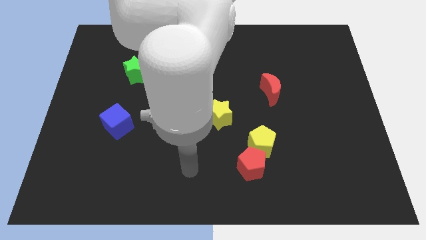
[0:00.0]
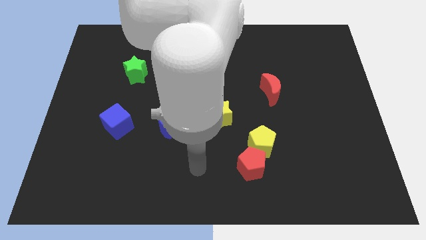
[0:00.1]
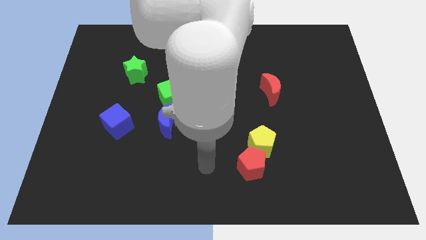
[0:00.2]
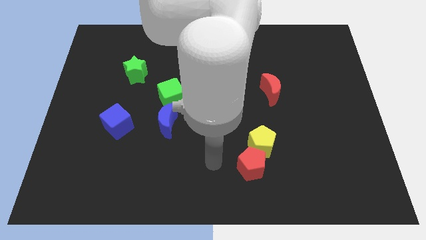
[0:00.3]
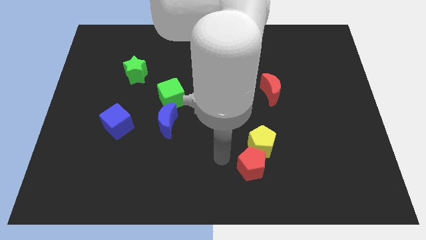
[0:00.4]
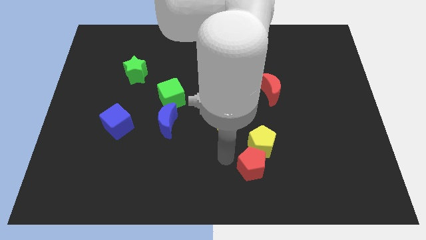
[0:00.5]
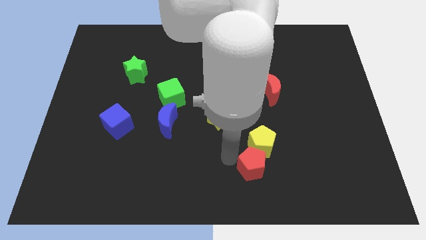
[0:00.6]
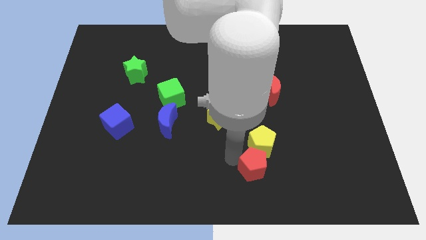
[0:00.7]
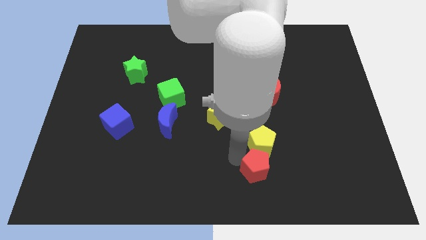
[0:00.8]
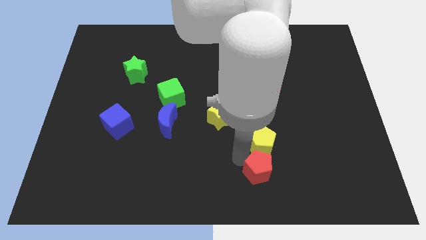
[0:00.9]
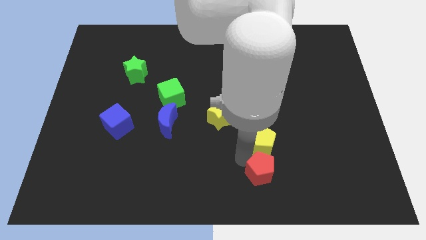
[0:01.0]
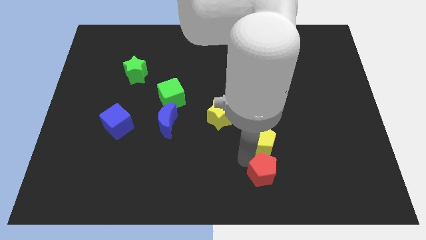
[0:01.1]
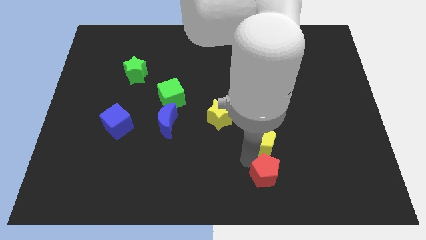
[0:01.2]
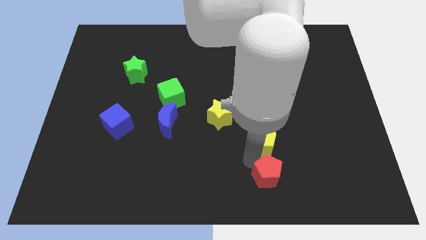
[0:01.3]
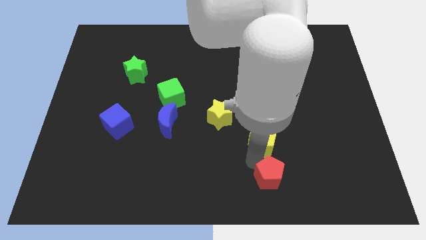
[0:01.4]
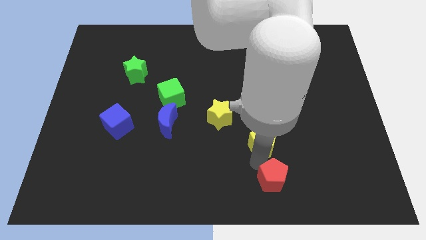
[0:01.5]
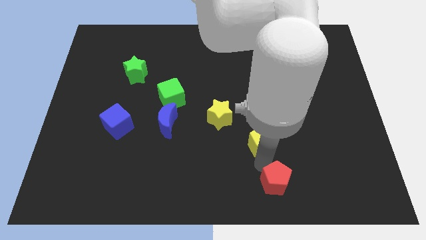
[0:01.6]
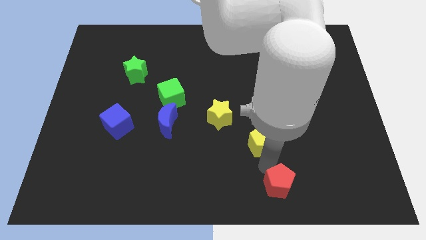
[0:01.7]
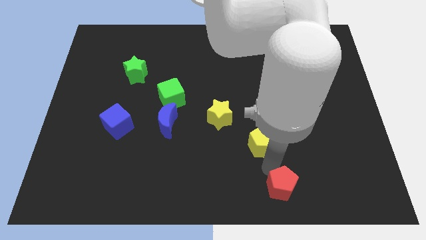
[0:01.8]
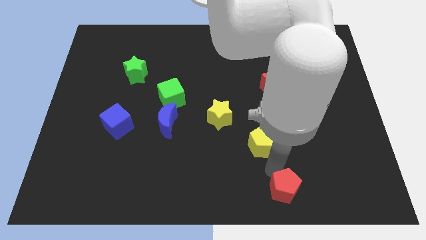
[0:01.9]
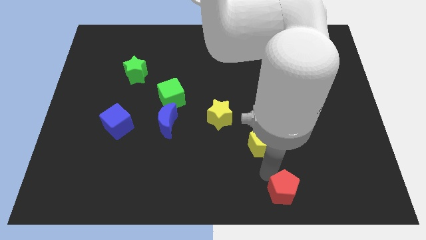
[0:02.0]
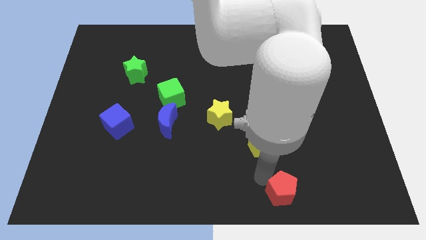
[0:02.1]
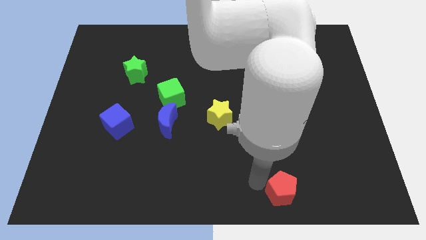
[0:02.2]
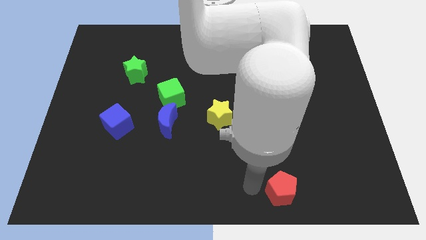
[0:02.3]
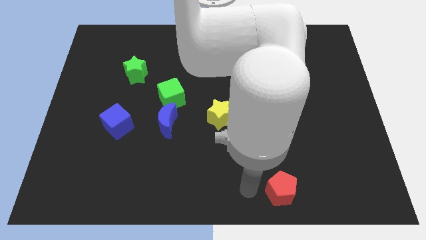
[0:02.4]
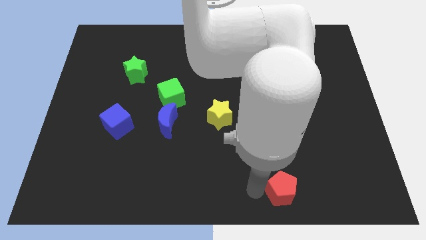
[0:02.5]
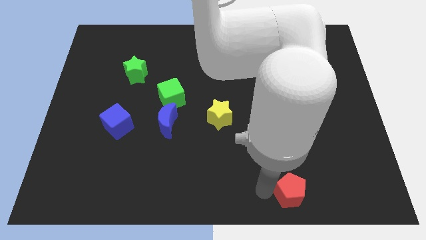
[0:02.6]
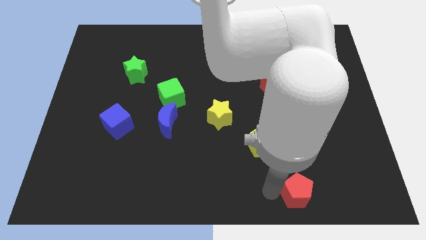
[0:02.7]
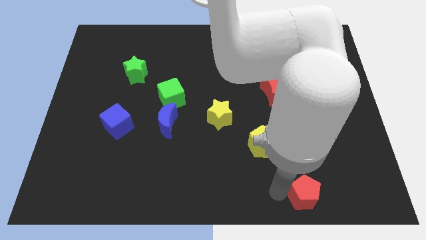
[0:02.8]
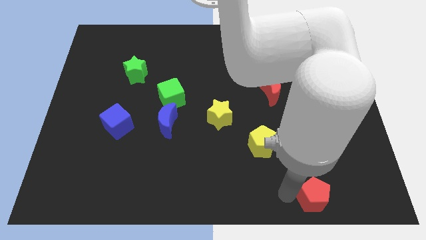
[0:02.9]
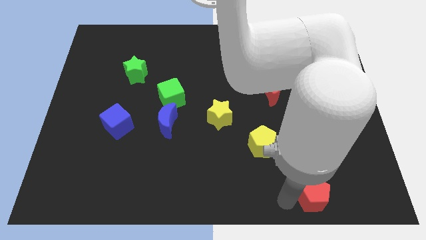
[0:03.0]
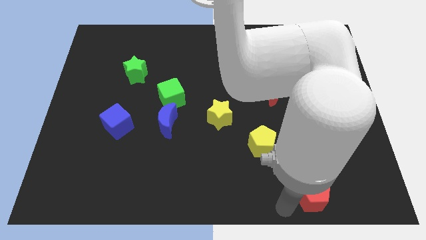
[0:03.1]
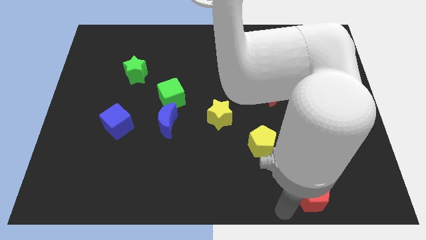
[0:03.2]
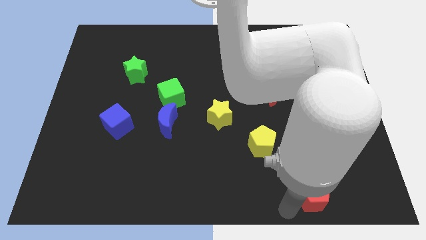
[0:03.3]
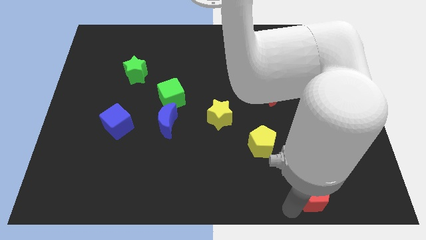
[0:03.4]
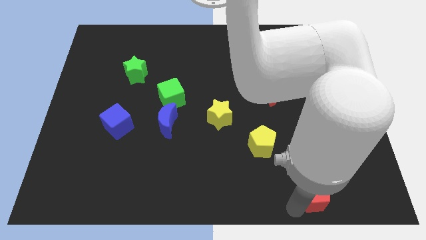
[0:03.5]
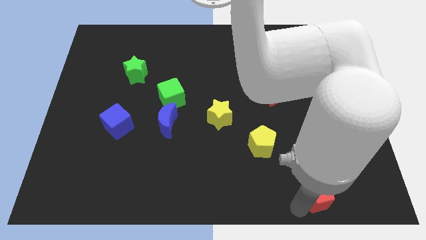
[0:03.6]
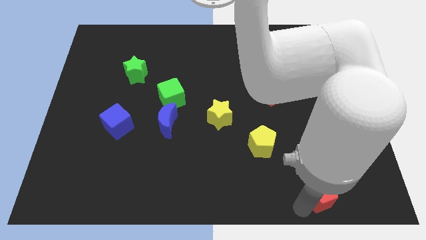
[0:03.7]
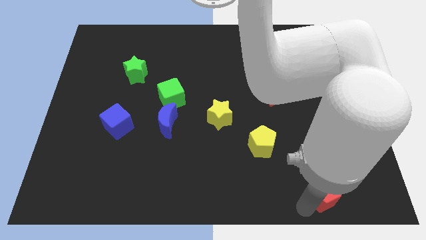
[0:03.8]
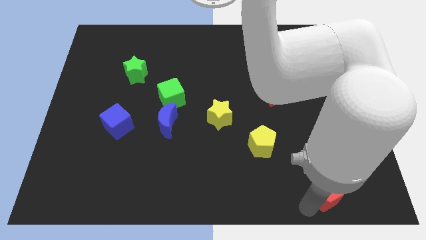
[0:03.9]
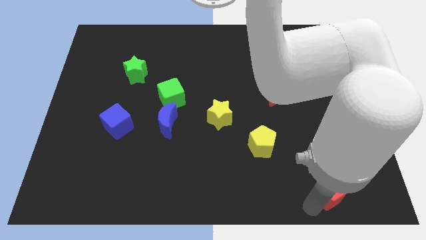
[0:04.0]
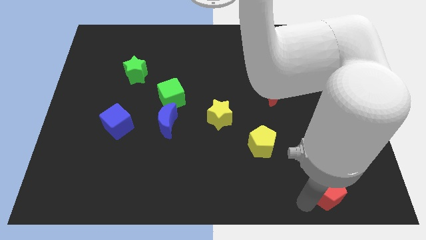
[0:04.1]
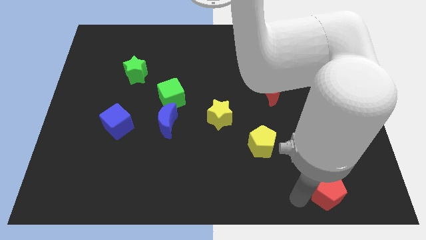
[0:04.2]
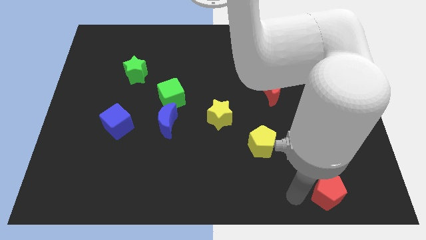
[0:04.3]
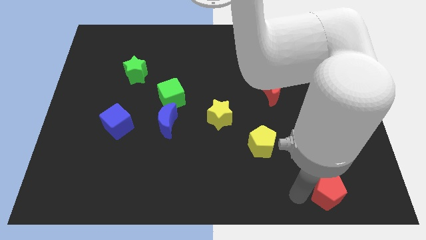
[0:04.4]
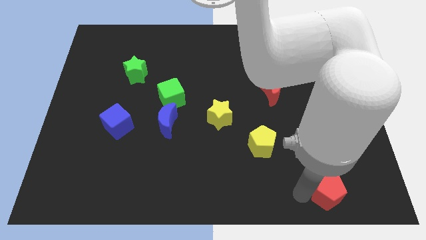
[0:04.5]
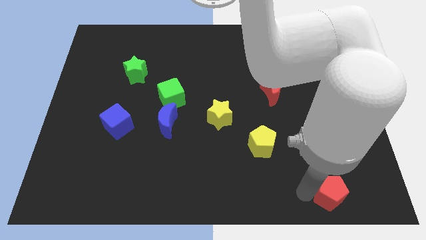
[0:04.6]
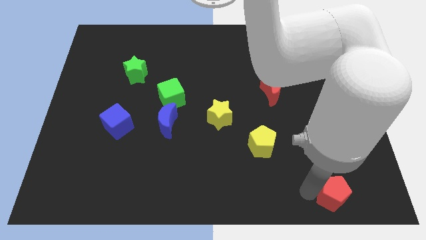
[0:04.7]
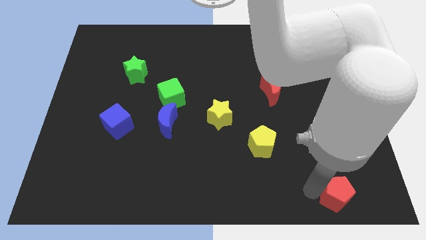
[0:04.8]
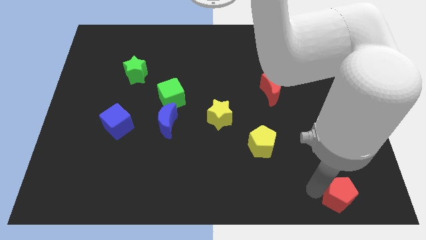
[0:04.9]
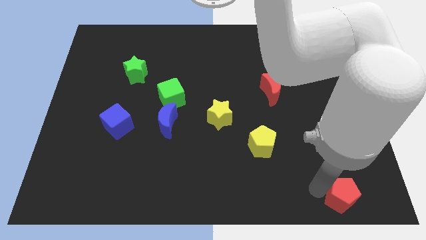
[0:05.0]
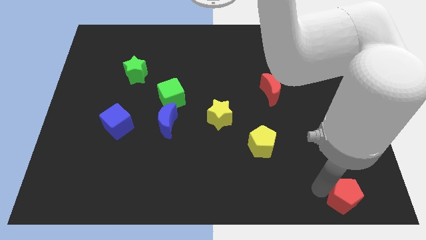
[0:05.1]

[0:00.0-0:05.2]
move the red pentagon to the bottom right corner

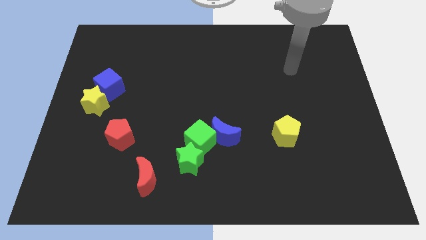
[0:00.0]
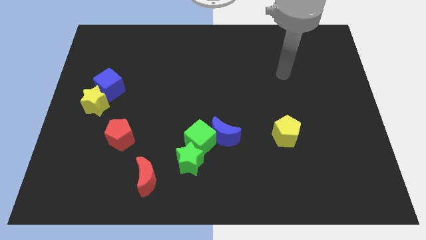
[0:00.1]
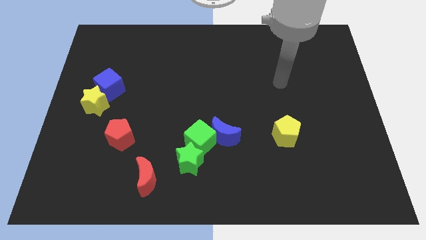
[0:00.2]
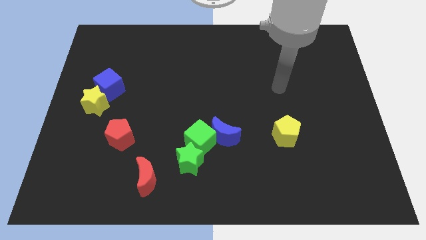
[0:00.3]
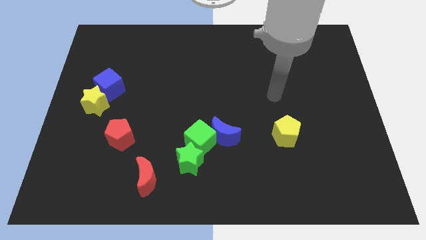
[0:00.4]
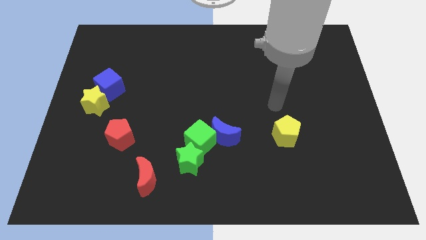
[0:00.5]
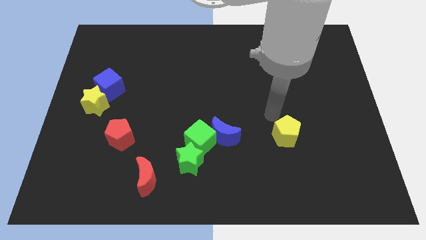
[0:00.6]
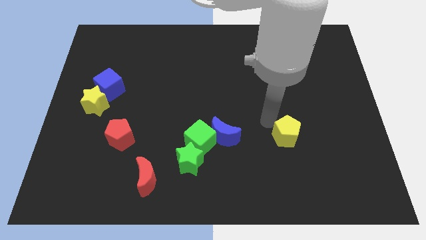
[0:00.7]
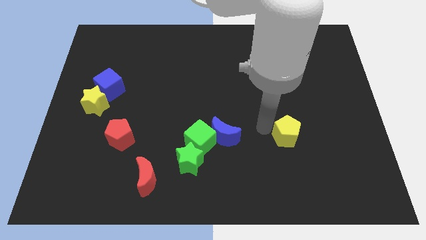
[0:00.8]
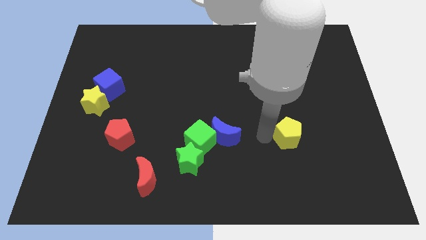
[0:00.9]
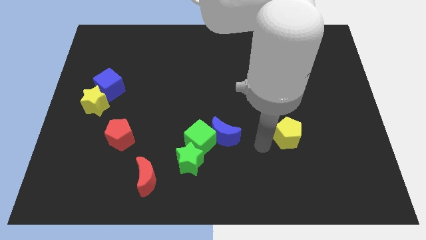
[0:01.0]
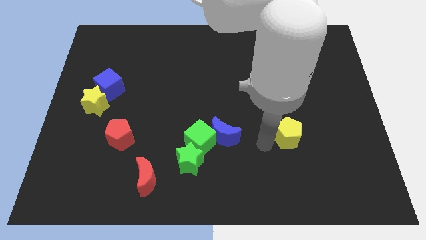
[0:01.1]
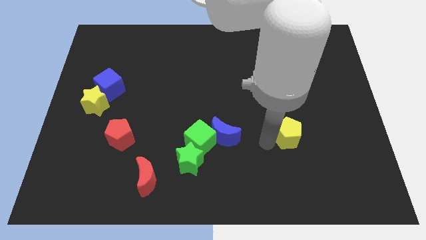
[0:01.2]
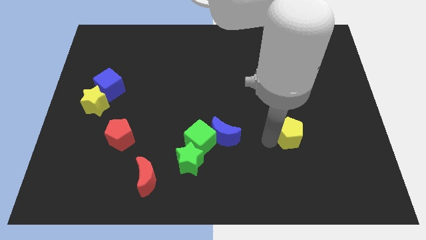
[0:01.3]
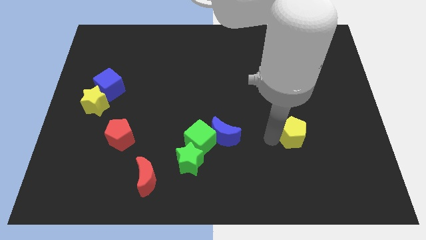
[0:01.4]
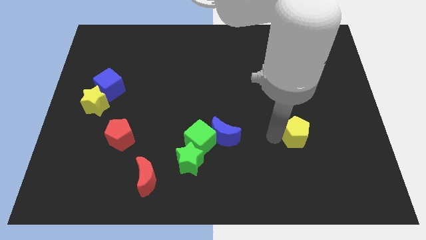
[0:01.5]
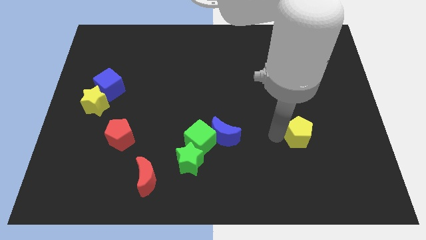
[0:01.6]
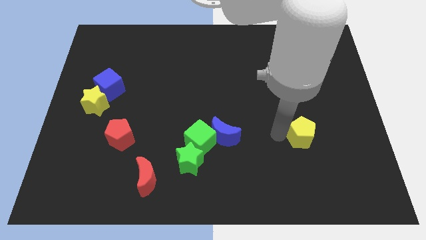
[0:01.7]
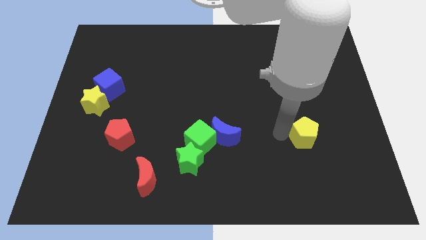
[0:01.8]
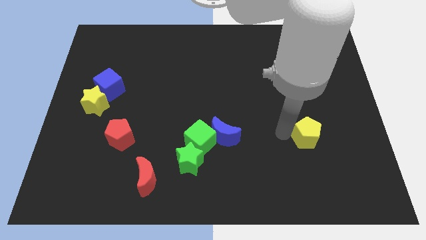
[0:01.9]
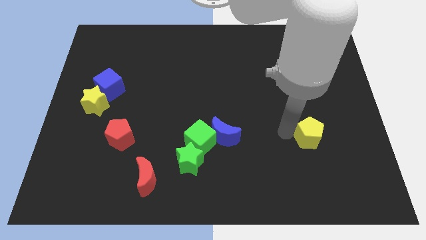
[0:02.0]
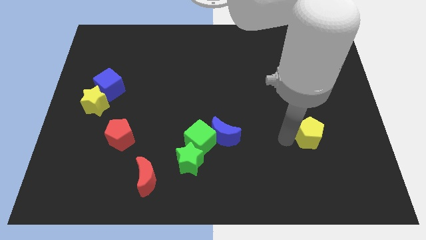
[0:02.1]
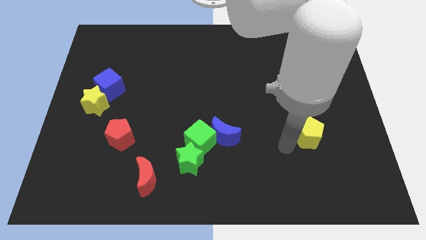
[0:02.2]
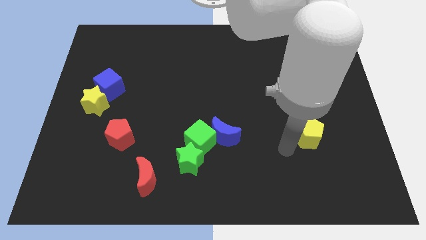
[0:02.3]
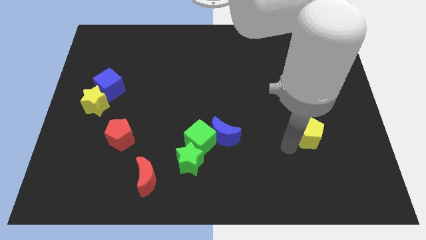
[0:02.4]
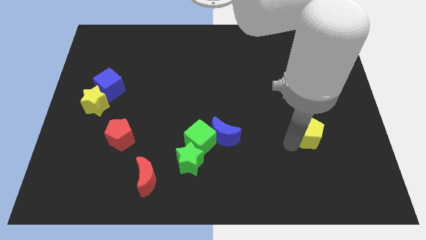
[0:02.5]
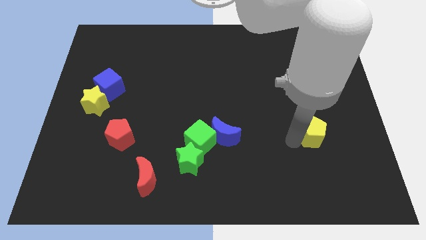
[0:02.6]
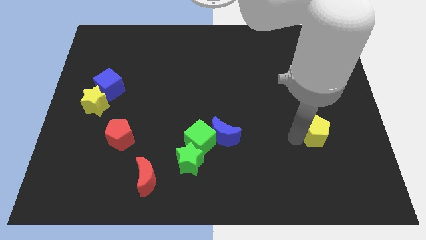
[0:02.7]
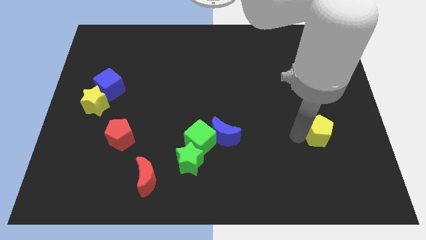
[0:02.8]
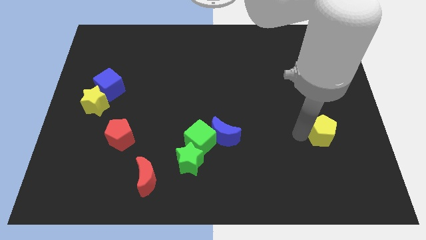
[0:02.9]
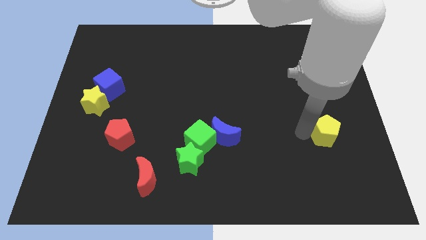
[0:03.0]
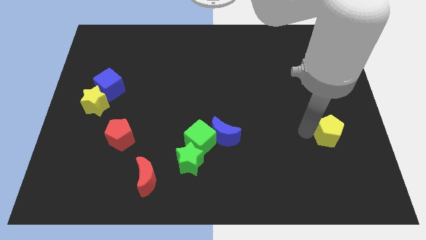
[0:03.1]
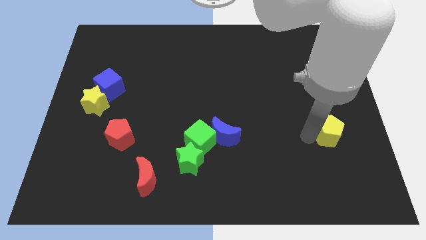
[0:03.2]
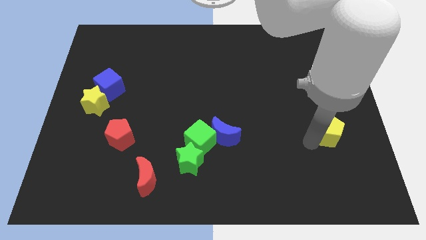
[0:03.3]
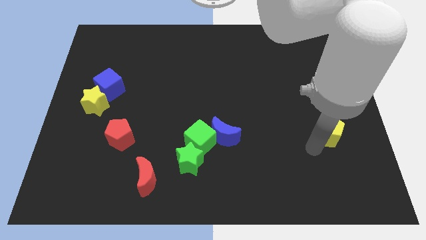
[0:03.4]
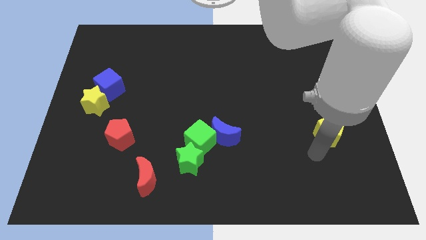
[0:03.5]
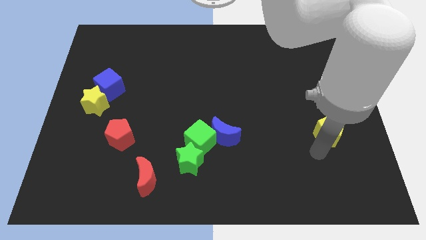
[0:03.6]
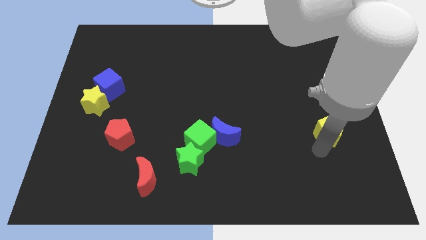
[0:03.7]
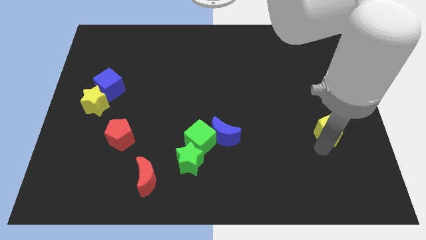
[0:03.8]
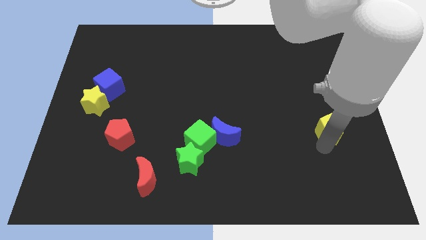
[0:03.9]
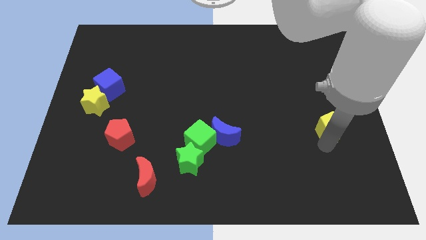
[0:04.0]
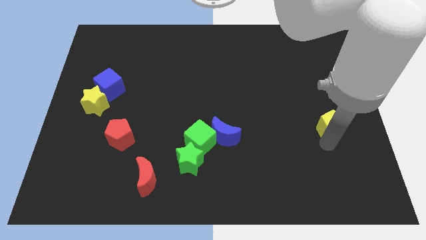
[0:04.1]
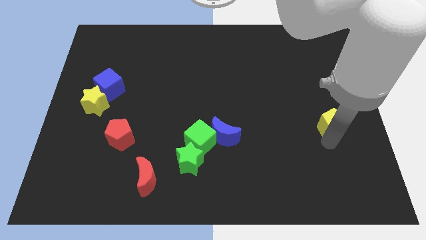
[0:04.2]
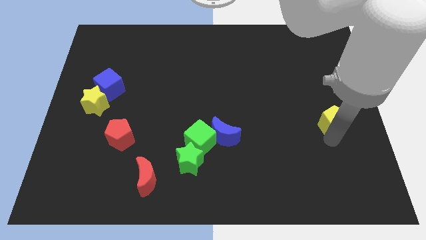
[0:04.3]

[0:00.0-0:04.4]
put the yellow pentagon to the right side of the board
